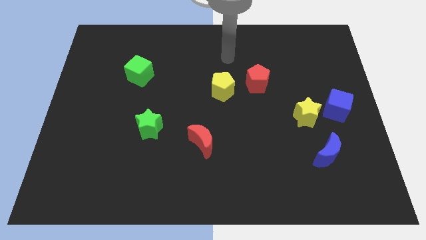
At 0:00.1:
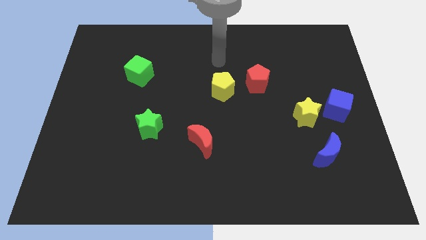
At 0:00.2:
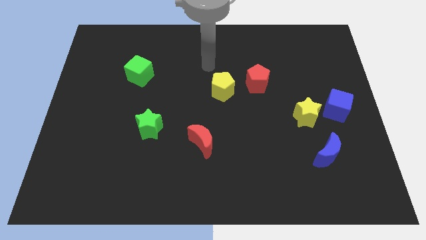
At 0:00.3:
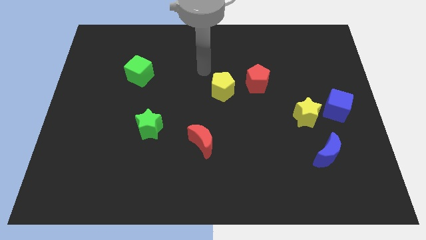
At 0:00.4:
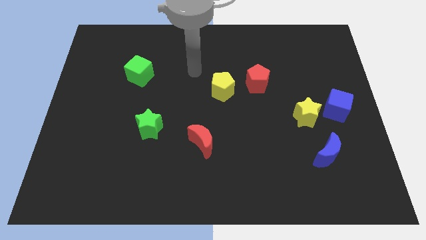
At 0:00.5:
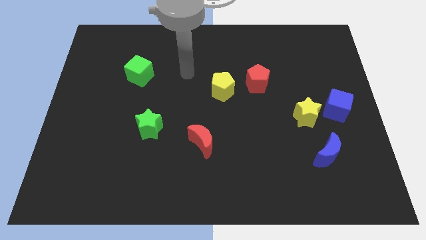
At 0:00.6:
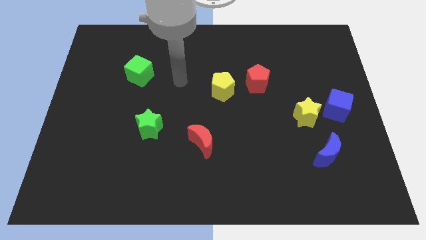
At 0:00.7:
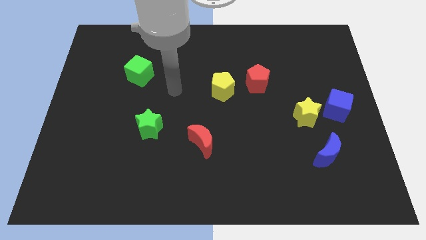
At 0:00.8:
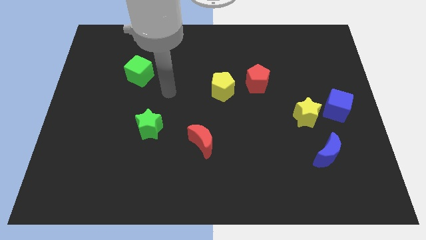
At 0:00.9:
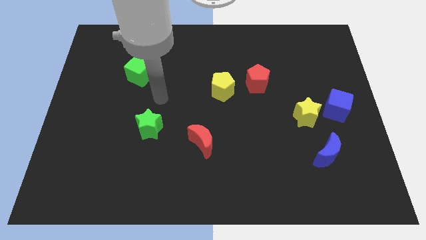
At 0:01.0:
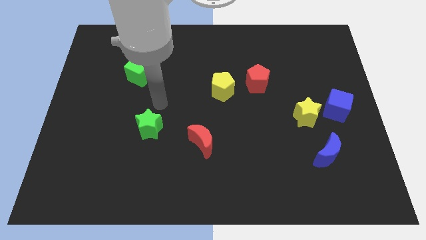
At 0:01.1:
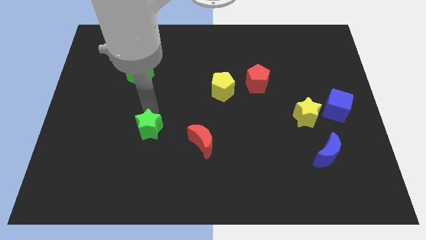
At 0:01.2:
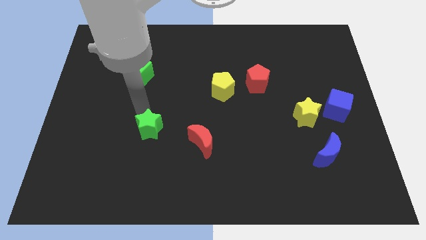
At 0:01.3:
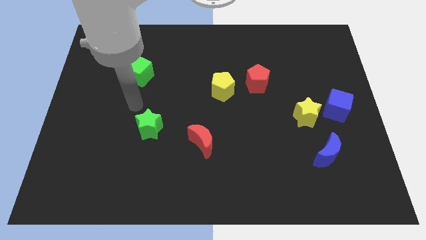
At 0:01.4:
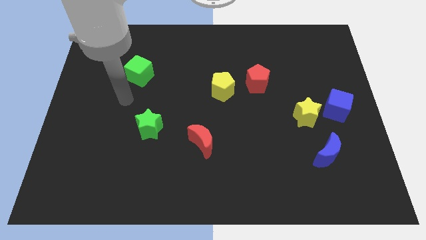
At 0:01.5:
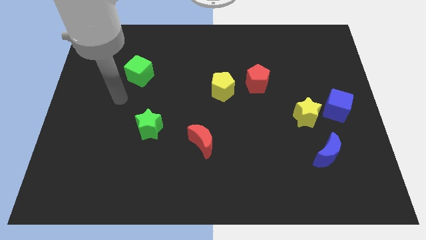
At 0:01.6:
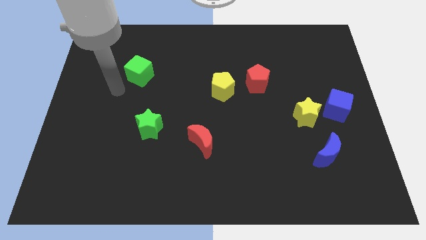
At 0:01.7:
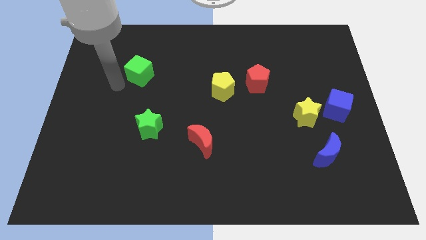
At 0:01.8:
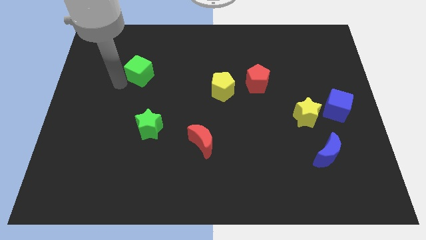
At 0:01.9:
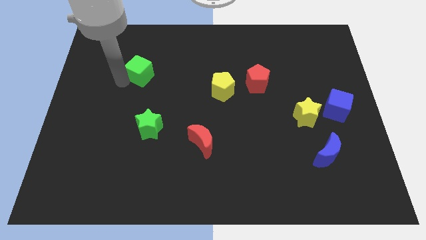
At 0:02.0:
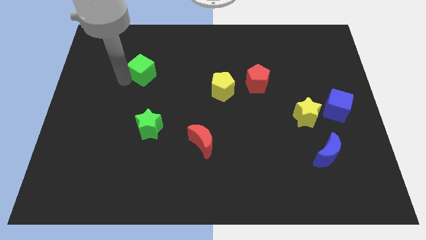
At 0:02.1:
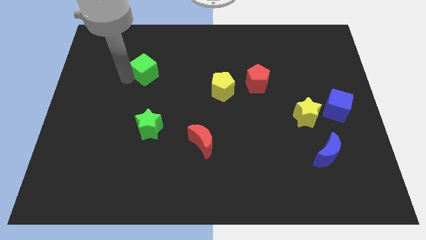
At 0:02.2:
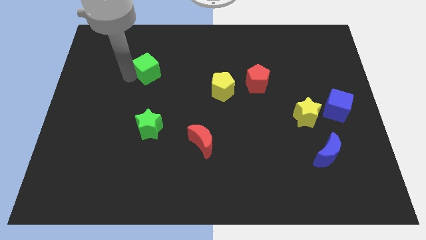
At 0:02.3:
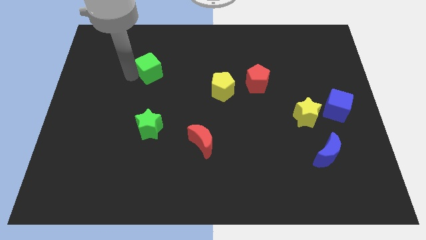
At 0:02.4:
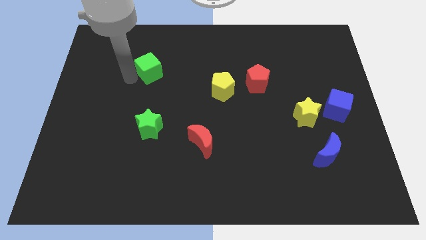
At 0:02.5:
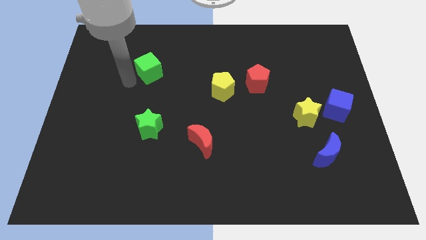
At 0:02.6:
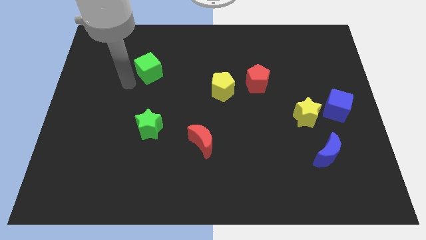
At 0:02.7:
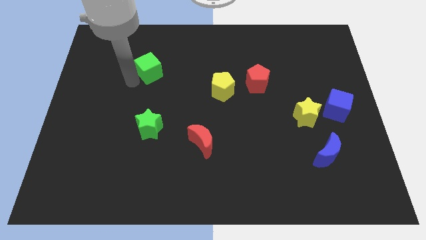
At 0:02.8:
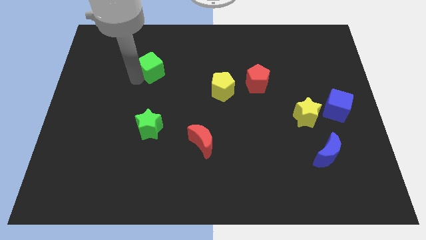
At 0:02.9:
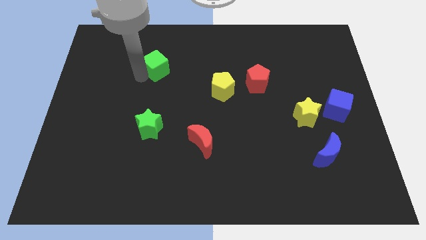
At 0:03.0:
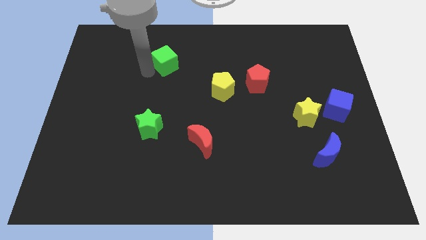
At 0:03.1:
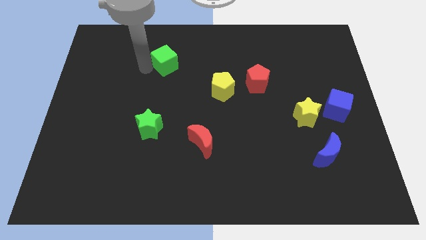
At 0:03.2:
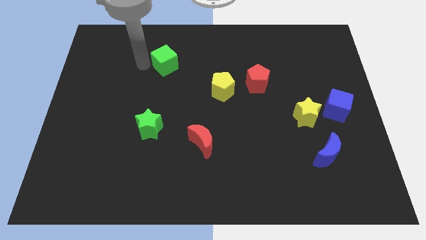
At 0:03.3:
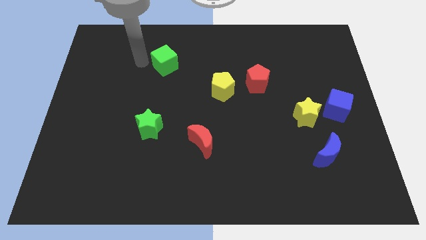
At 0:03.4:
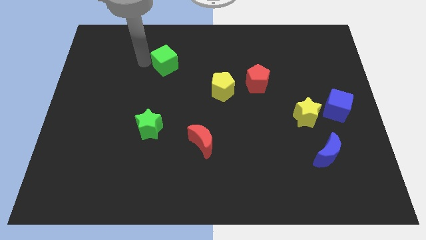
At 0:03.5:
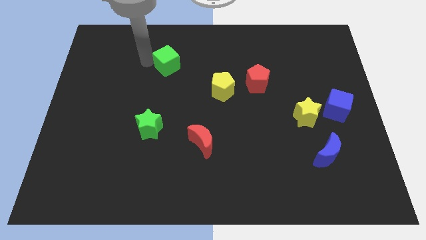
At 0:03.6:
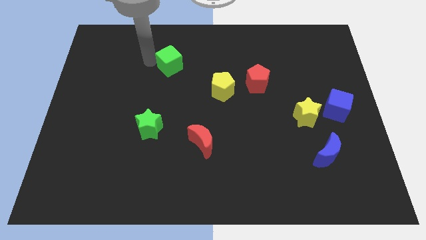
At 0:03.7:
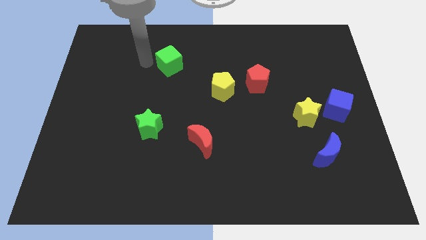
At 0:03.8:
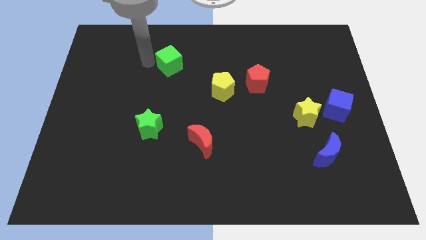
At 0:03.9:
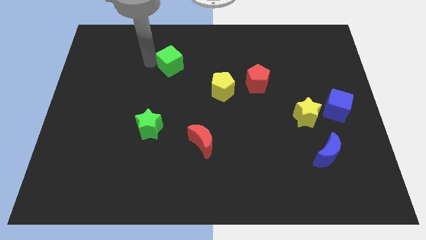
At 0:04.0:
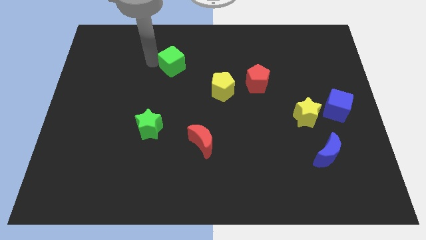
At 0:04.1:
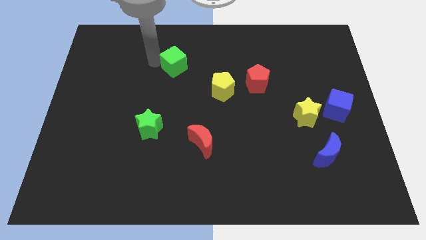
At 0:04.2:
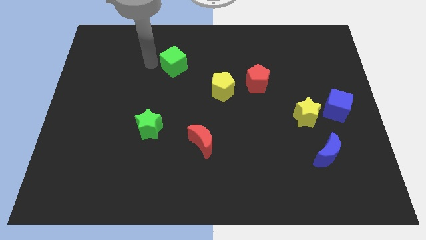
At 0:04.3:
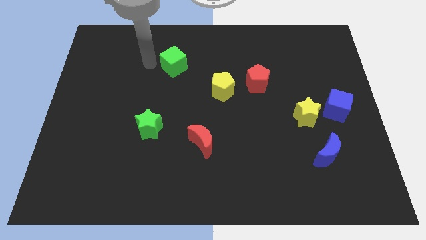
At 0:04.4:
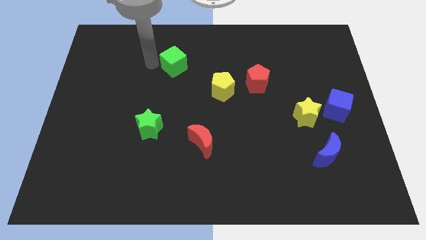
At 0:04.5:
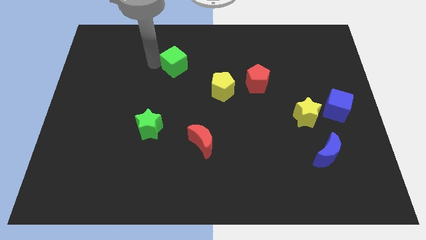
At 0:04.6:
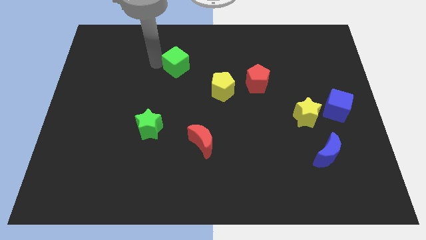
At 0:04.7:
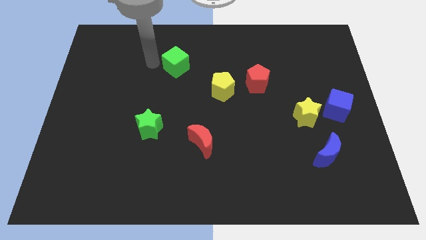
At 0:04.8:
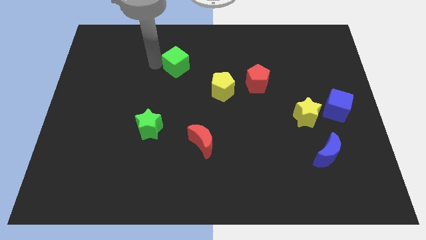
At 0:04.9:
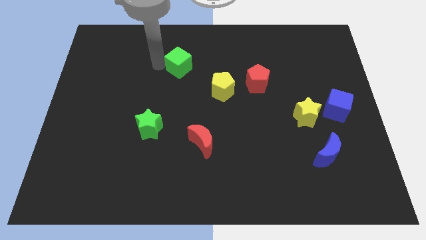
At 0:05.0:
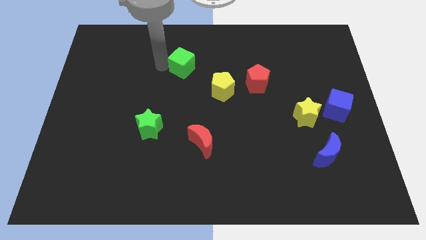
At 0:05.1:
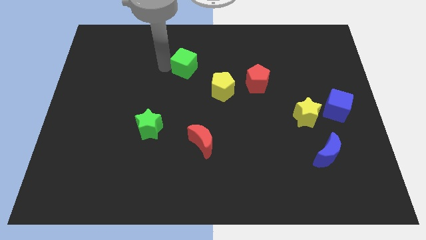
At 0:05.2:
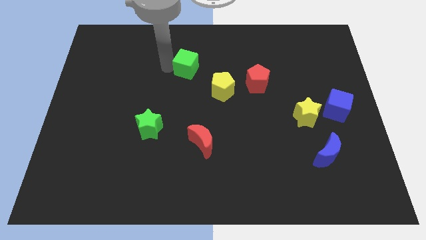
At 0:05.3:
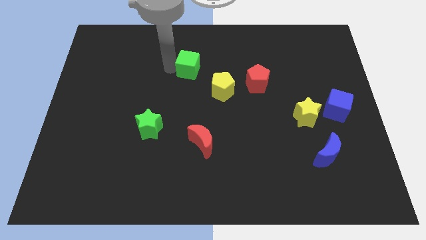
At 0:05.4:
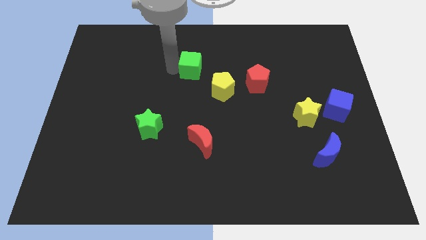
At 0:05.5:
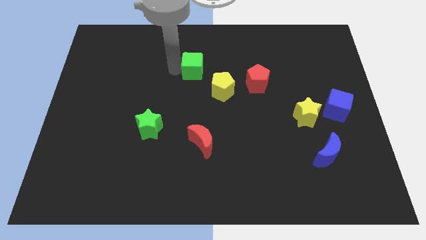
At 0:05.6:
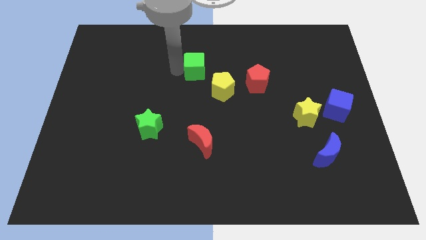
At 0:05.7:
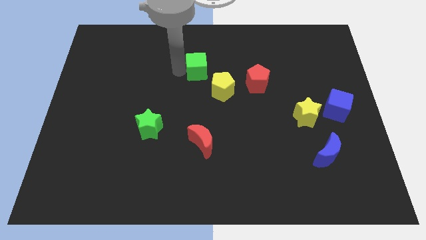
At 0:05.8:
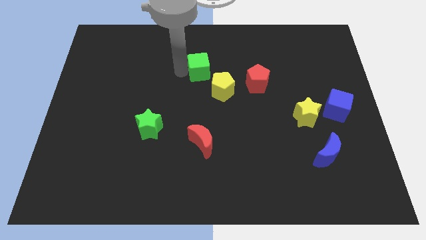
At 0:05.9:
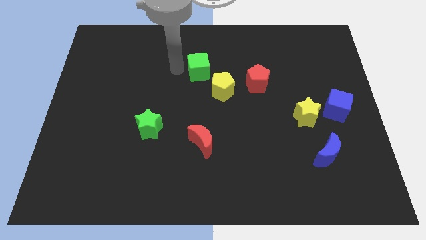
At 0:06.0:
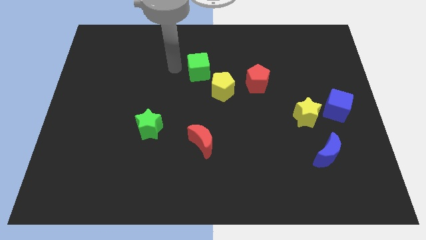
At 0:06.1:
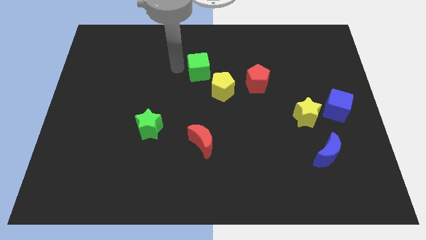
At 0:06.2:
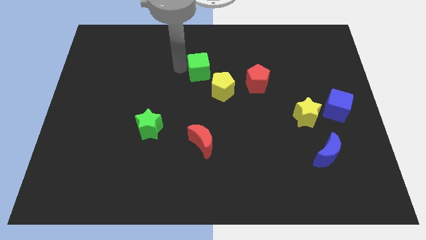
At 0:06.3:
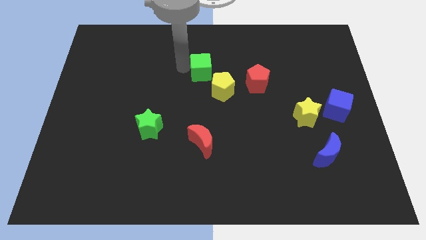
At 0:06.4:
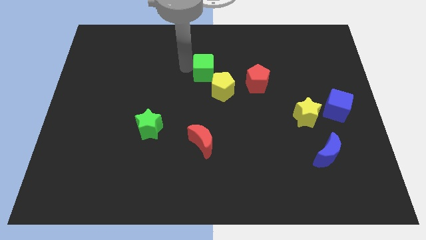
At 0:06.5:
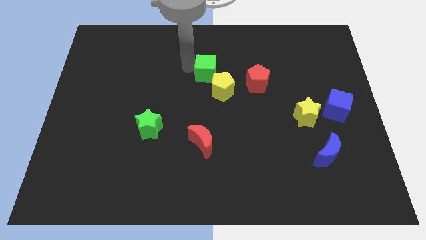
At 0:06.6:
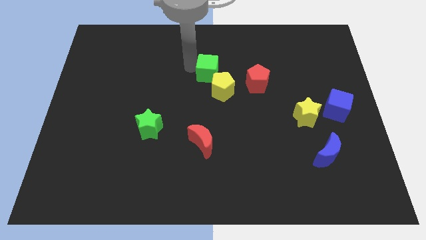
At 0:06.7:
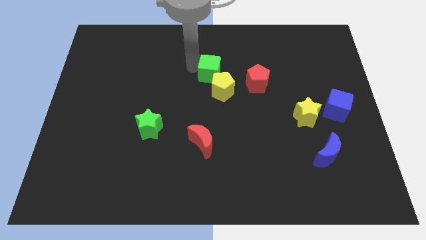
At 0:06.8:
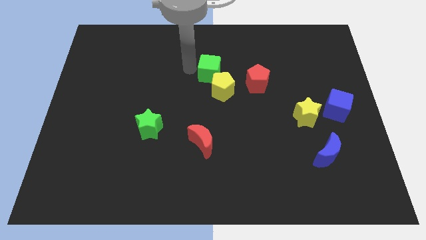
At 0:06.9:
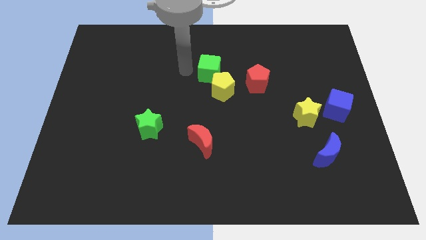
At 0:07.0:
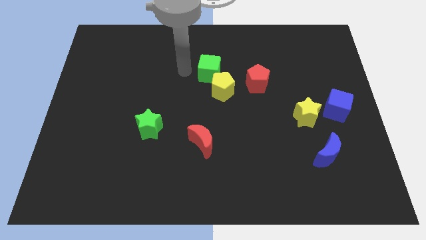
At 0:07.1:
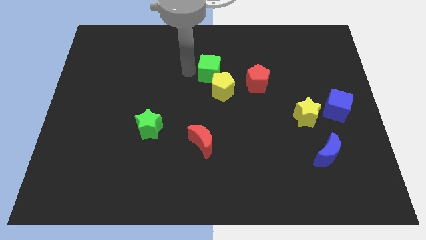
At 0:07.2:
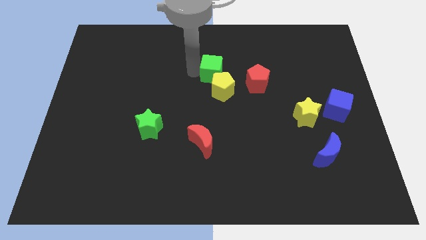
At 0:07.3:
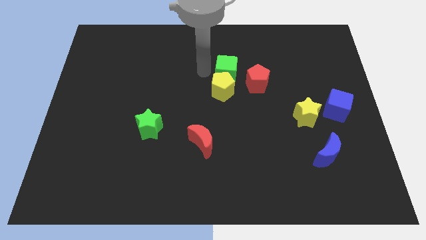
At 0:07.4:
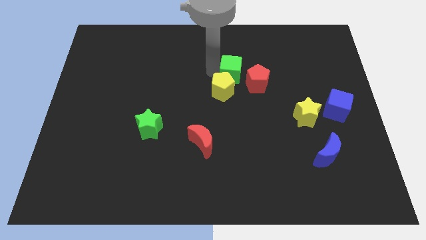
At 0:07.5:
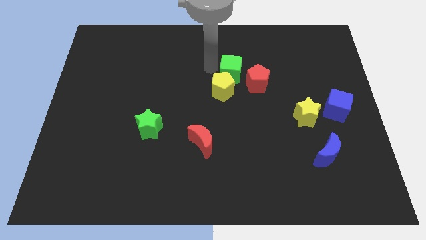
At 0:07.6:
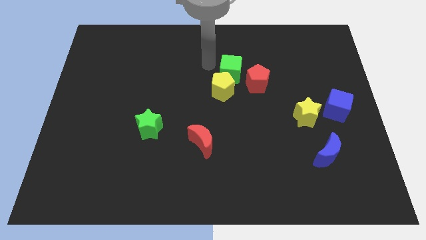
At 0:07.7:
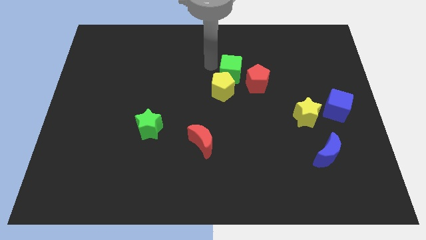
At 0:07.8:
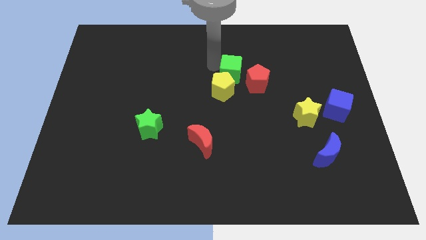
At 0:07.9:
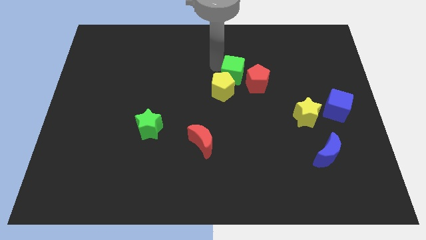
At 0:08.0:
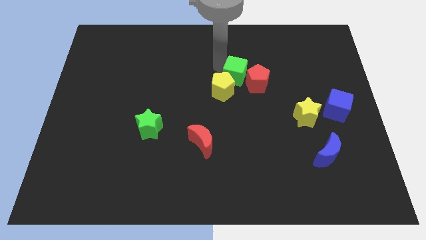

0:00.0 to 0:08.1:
put the green cube towards the red pentagon
